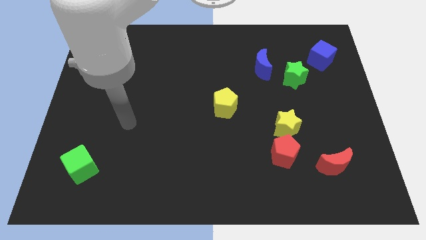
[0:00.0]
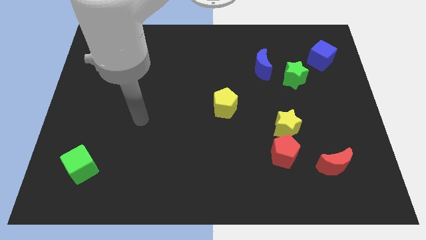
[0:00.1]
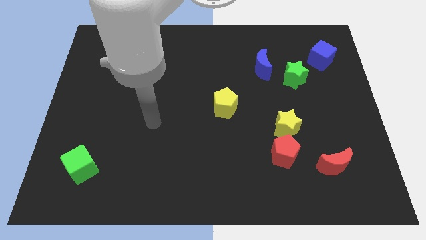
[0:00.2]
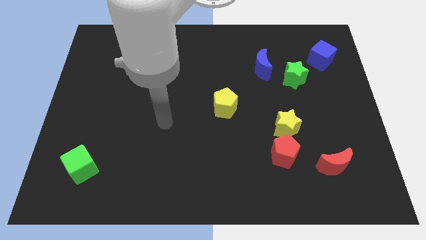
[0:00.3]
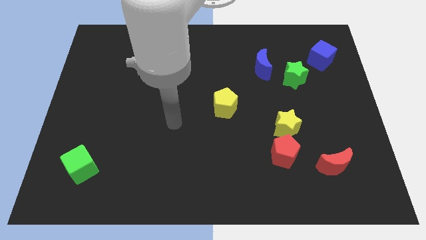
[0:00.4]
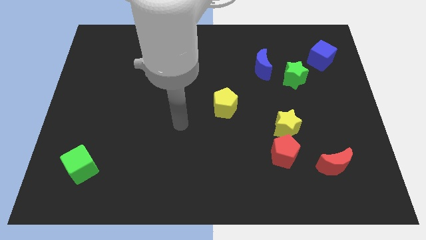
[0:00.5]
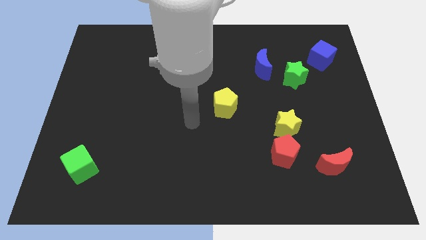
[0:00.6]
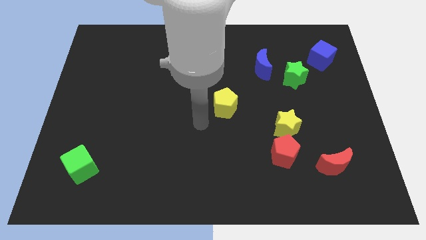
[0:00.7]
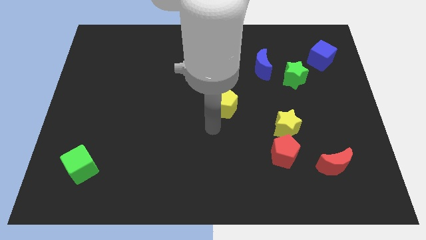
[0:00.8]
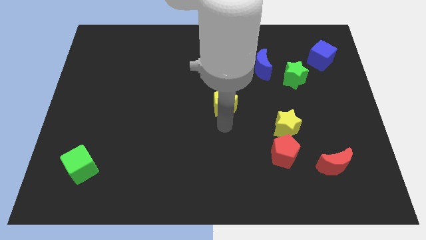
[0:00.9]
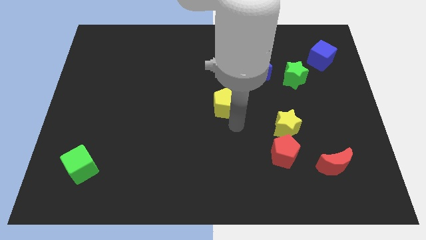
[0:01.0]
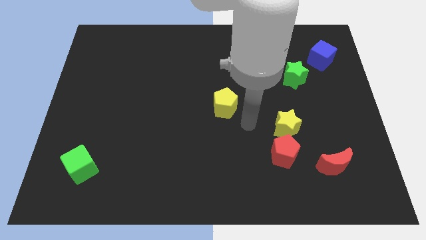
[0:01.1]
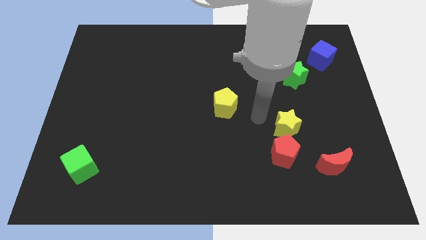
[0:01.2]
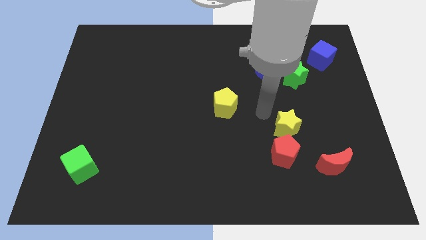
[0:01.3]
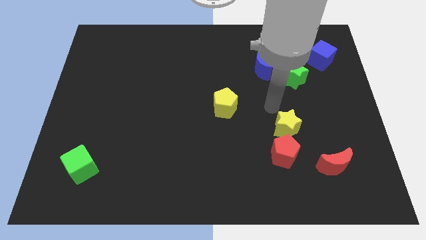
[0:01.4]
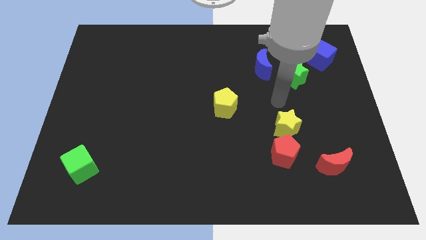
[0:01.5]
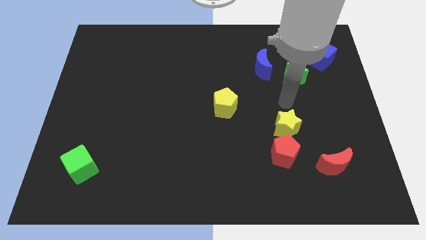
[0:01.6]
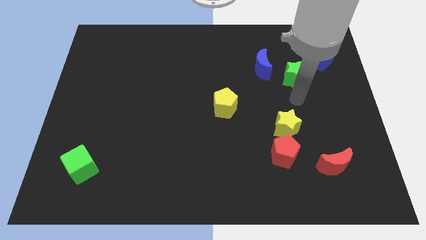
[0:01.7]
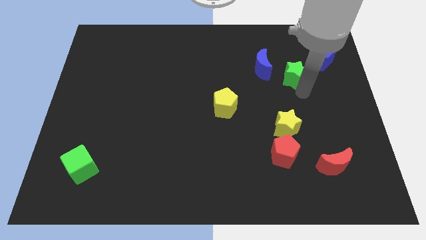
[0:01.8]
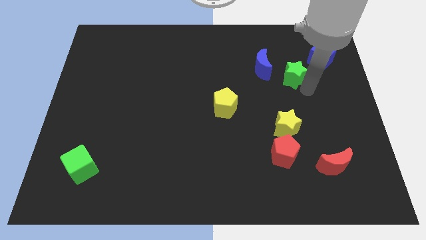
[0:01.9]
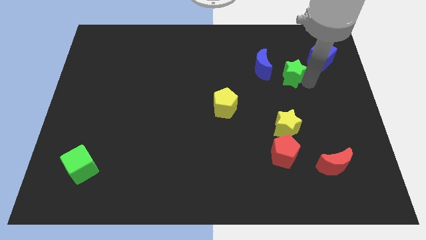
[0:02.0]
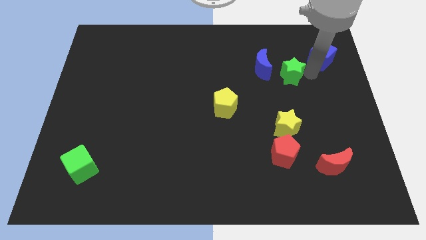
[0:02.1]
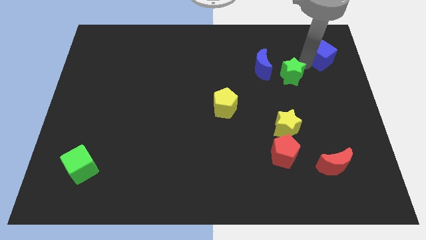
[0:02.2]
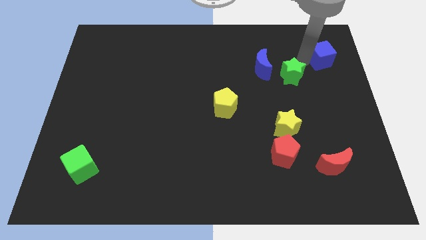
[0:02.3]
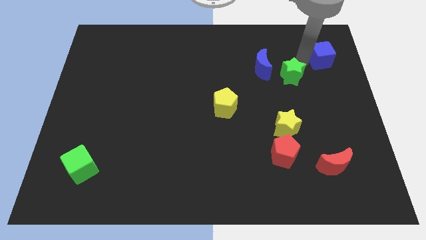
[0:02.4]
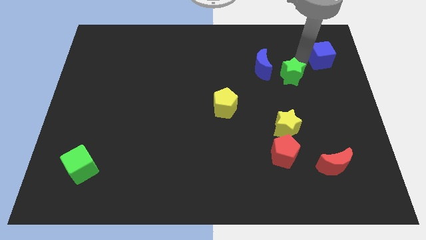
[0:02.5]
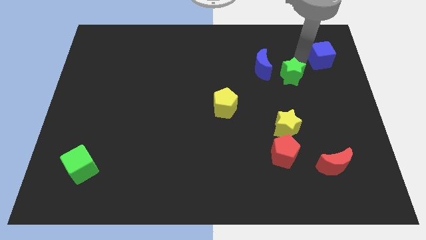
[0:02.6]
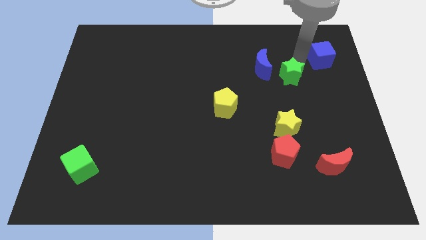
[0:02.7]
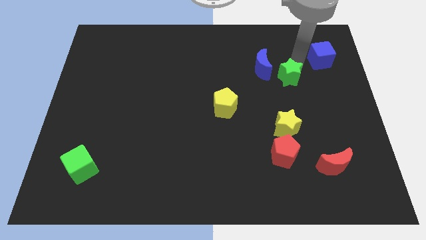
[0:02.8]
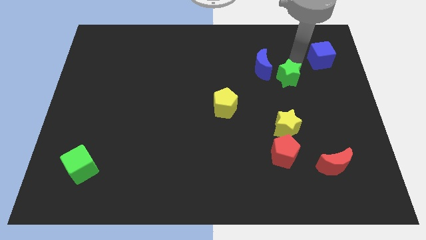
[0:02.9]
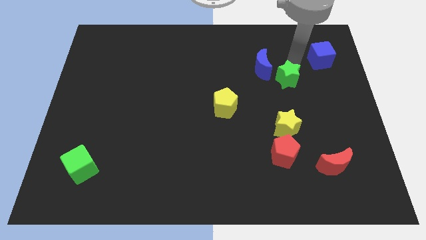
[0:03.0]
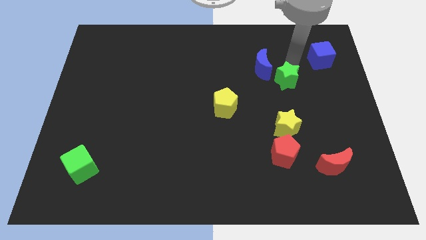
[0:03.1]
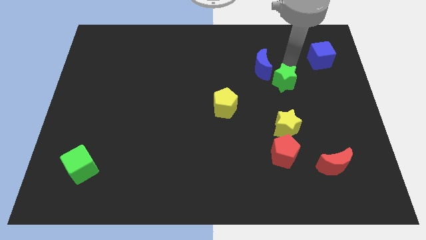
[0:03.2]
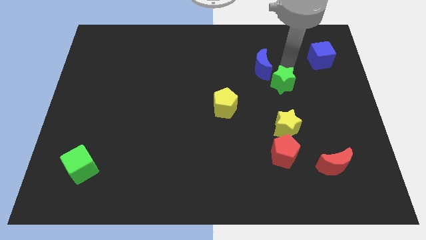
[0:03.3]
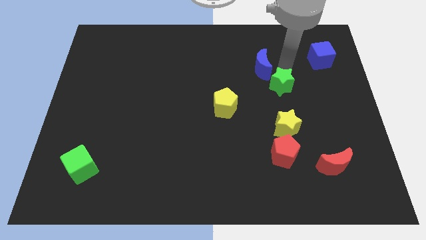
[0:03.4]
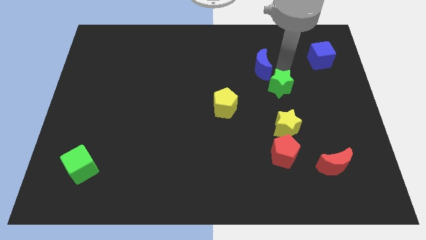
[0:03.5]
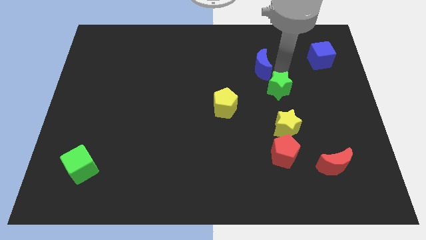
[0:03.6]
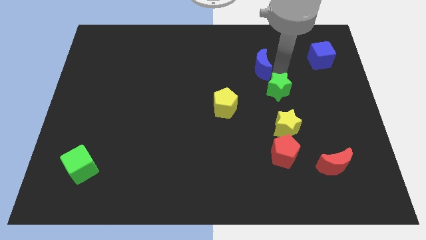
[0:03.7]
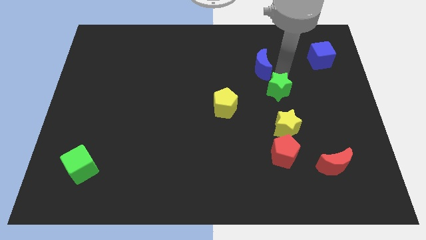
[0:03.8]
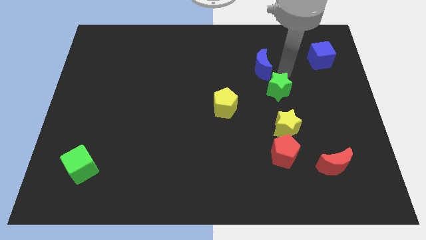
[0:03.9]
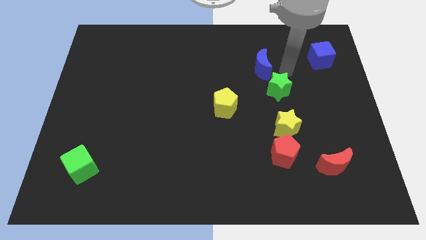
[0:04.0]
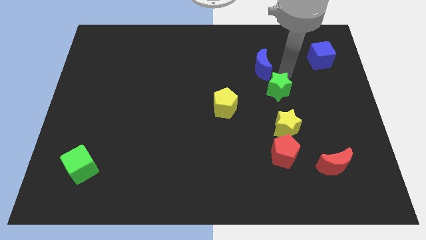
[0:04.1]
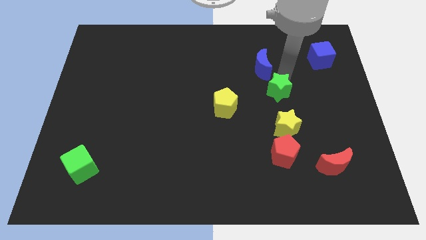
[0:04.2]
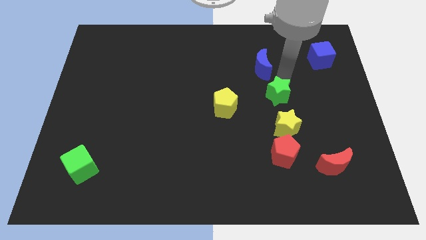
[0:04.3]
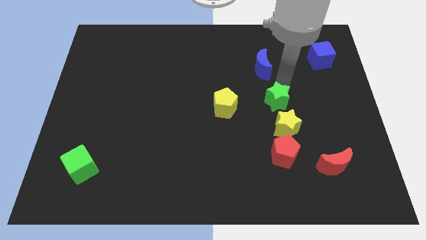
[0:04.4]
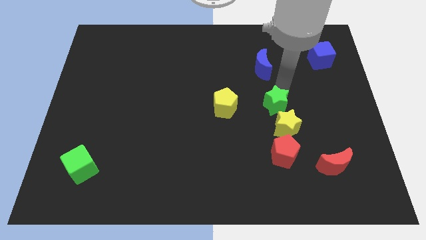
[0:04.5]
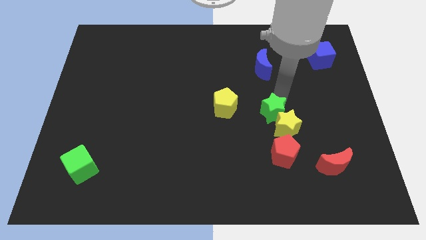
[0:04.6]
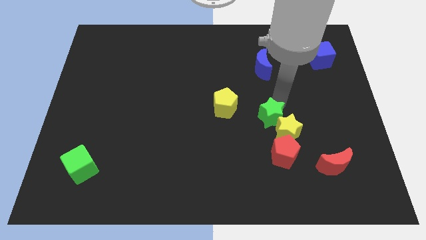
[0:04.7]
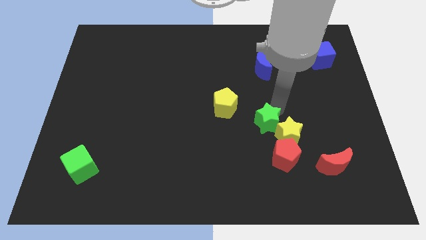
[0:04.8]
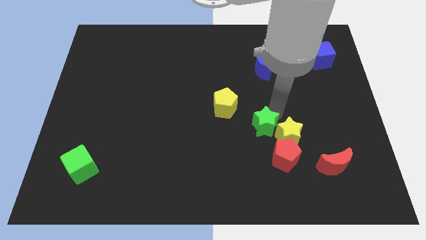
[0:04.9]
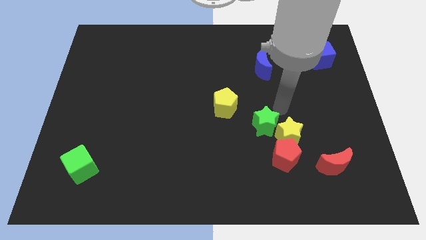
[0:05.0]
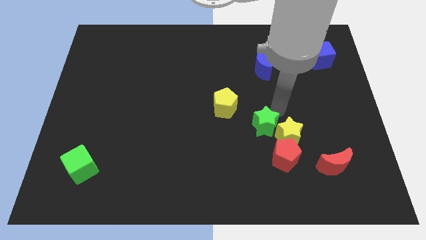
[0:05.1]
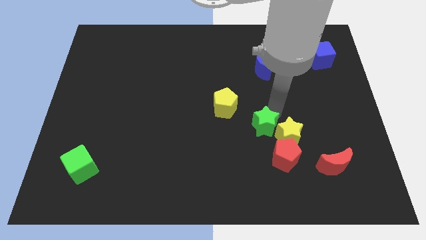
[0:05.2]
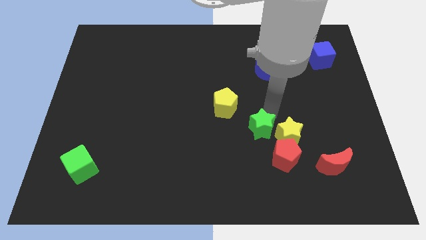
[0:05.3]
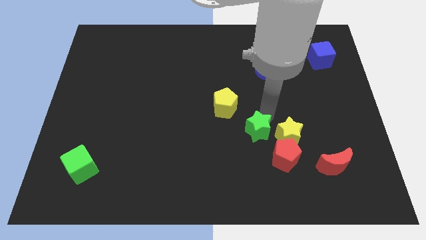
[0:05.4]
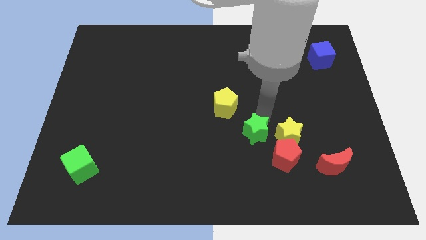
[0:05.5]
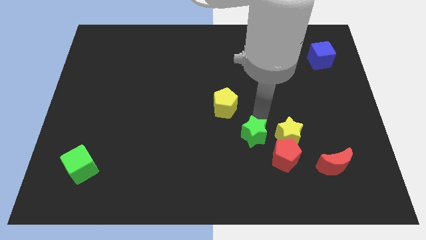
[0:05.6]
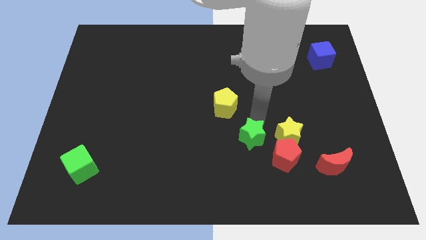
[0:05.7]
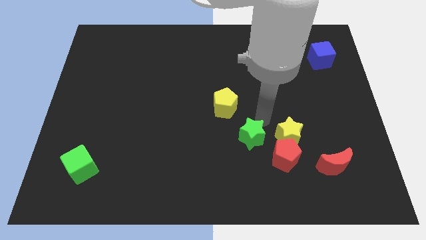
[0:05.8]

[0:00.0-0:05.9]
put the green star left of the red pentagon

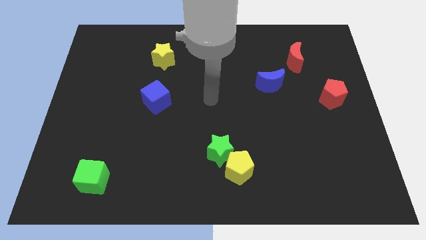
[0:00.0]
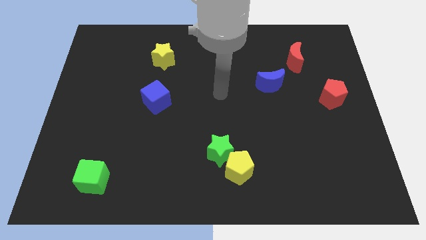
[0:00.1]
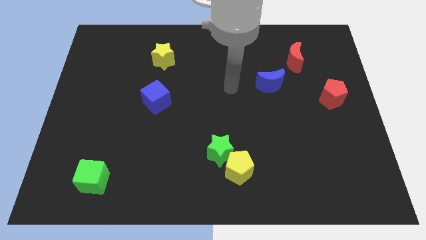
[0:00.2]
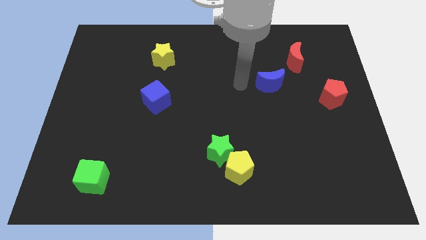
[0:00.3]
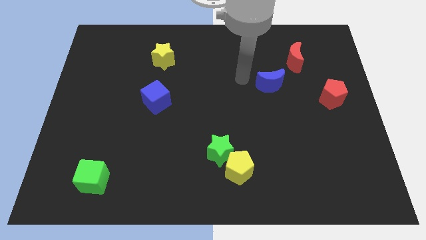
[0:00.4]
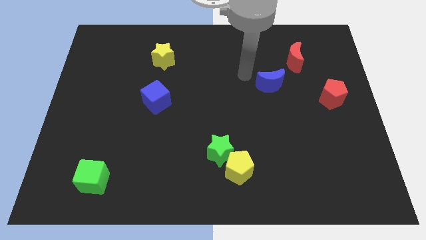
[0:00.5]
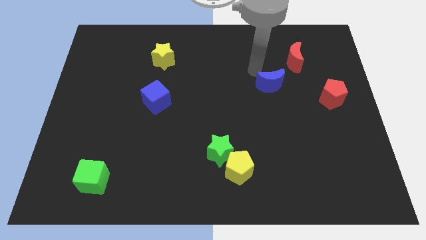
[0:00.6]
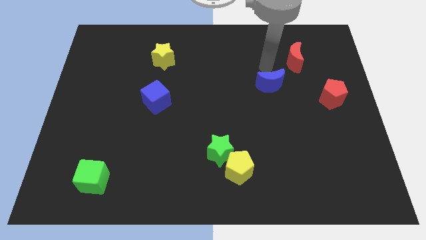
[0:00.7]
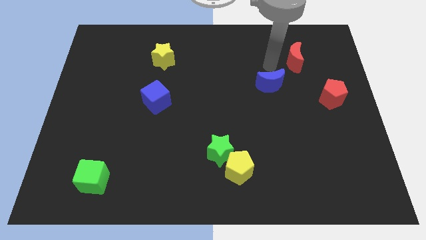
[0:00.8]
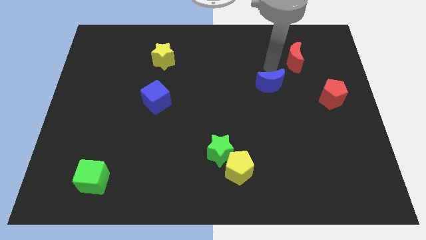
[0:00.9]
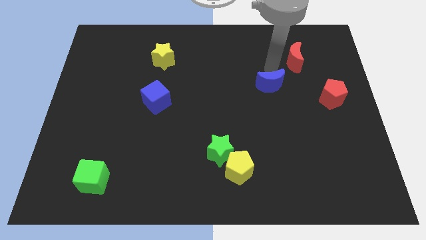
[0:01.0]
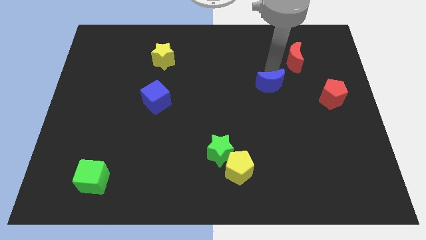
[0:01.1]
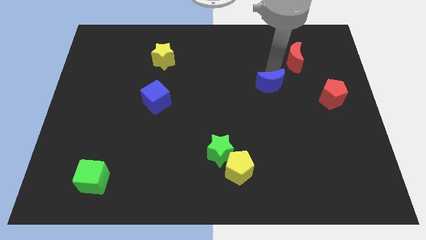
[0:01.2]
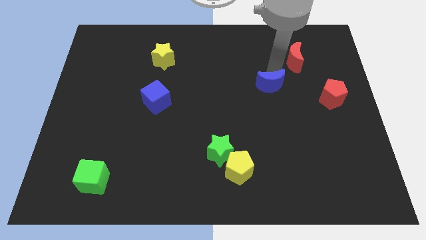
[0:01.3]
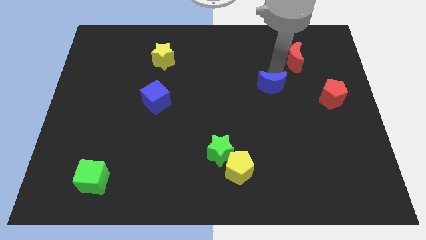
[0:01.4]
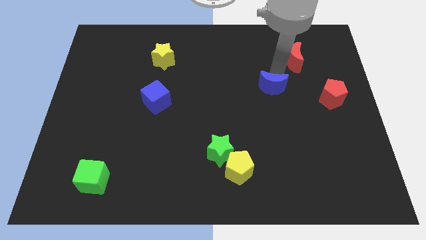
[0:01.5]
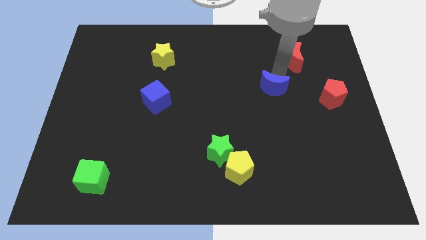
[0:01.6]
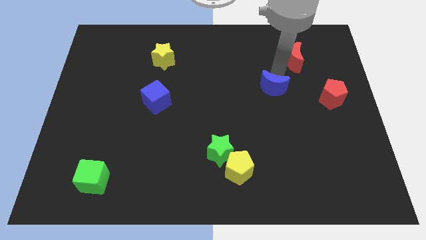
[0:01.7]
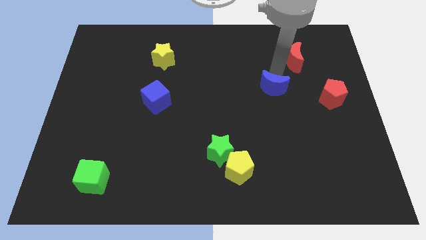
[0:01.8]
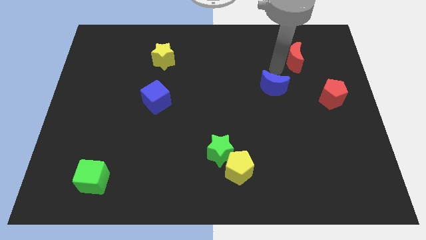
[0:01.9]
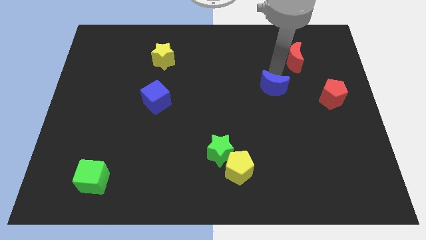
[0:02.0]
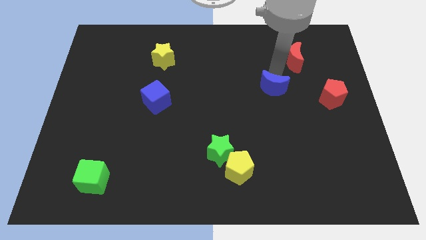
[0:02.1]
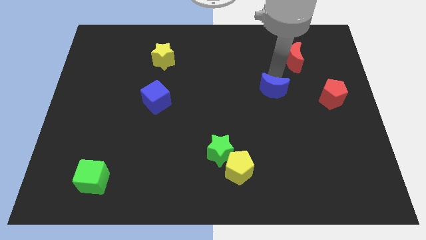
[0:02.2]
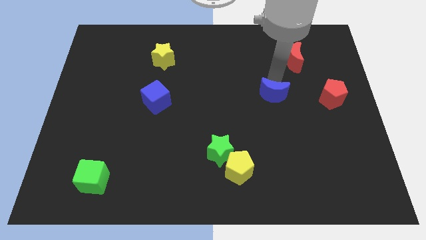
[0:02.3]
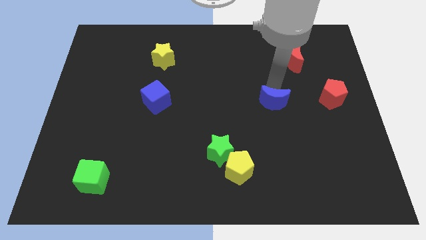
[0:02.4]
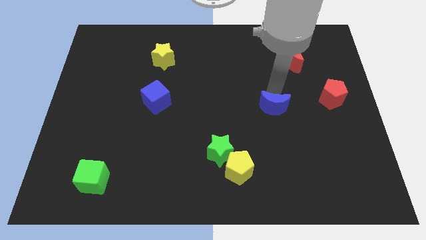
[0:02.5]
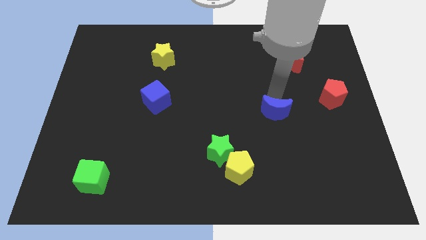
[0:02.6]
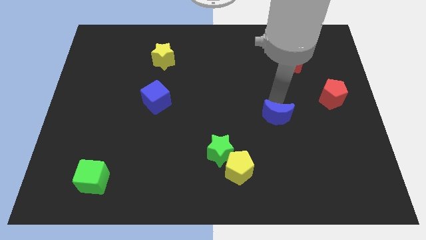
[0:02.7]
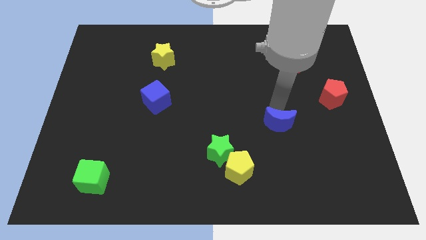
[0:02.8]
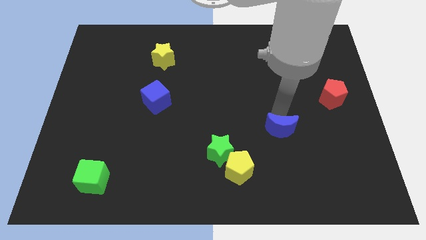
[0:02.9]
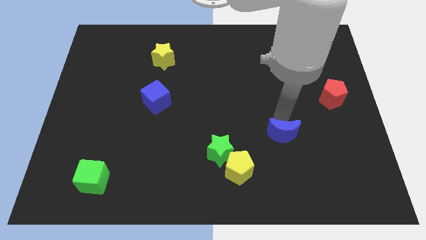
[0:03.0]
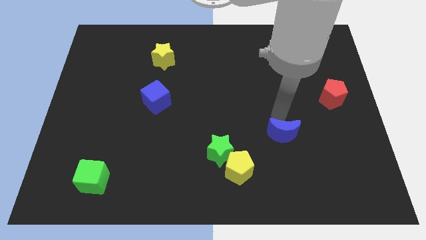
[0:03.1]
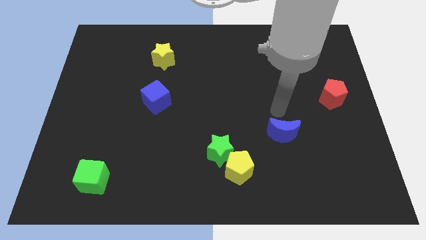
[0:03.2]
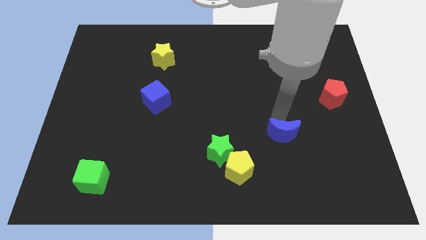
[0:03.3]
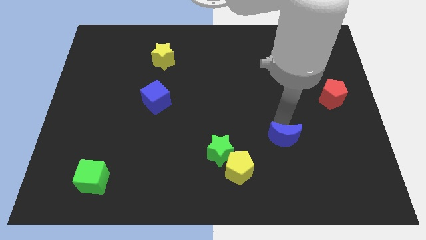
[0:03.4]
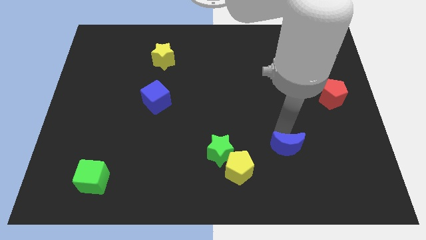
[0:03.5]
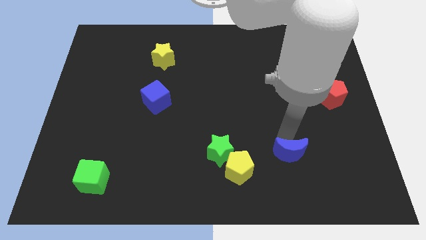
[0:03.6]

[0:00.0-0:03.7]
put the blue moon to the right of the yellow pentagon
